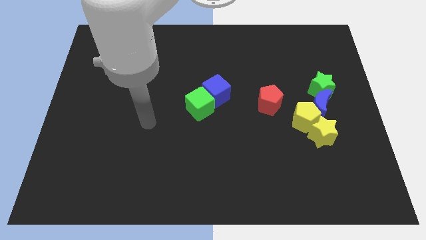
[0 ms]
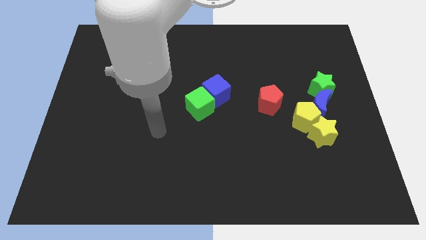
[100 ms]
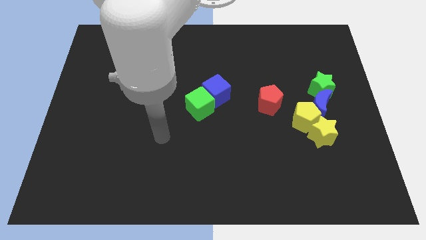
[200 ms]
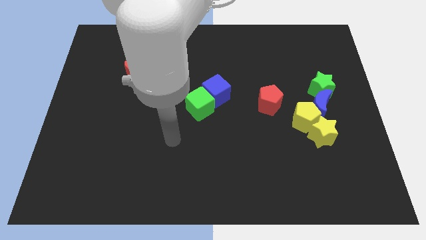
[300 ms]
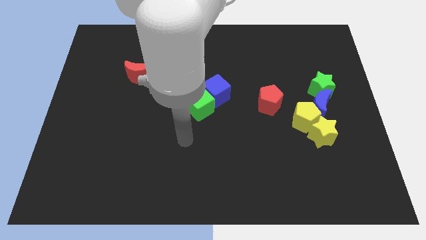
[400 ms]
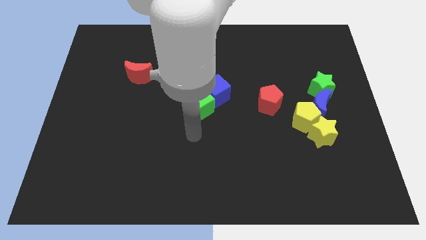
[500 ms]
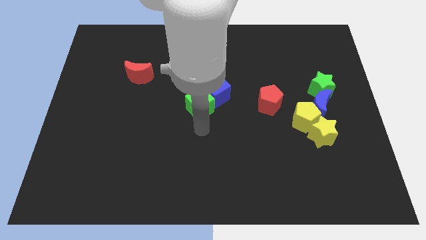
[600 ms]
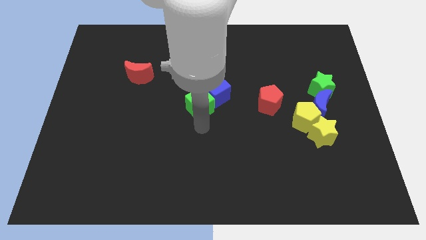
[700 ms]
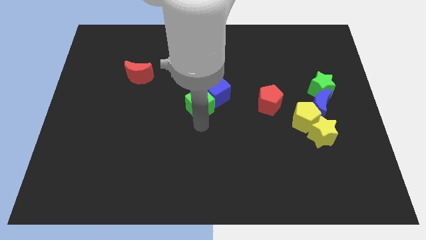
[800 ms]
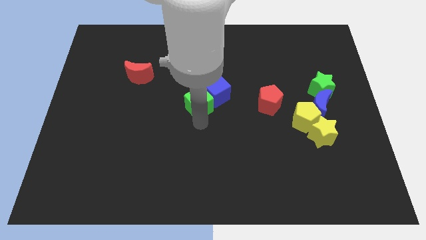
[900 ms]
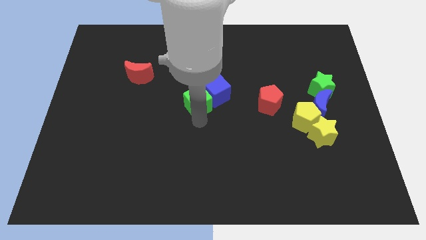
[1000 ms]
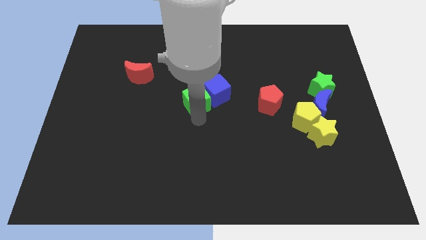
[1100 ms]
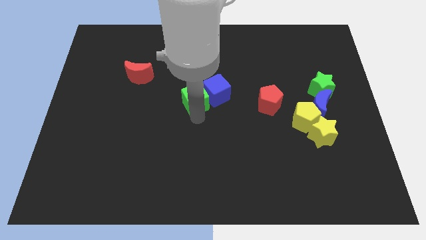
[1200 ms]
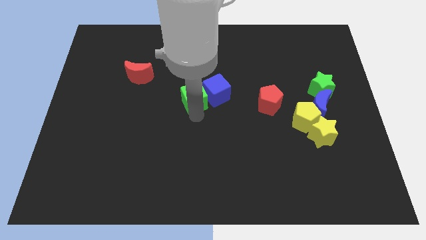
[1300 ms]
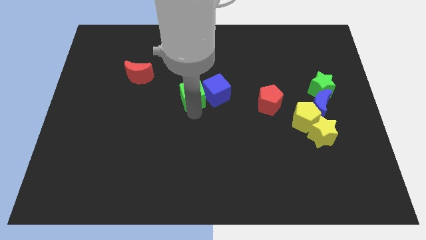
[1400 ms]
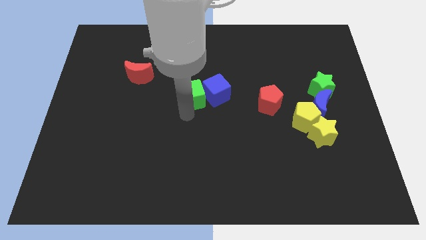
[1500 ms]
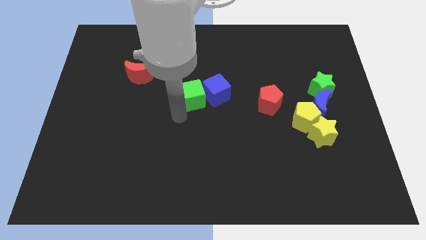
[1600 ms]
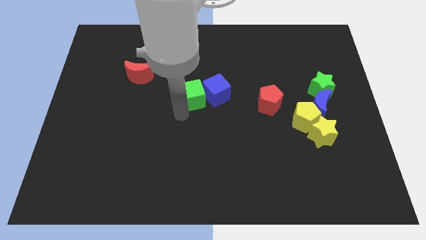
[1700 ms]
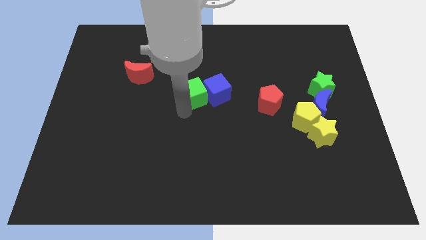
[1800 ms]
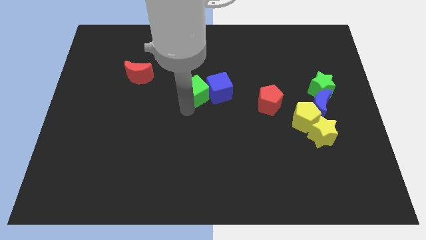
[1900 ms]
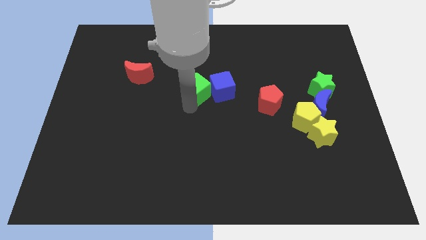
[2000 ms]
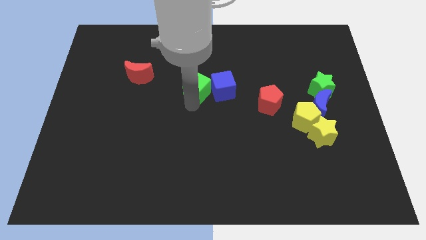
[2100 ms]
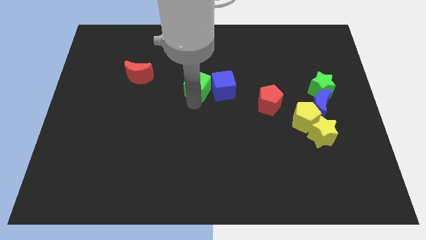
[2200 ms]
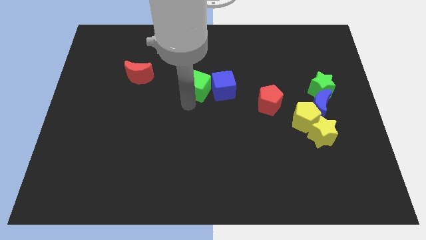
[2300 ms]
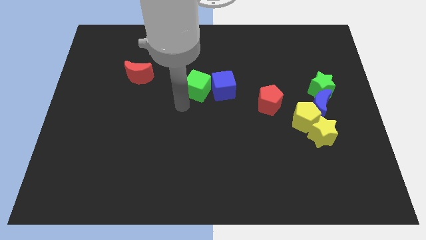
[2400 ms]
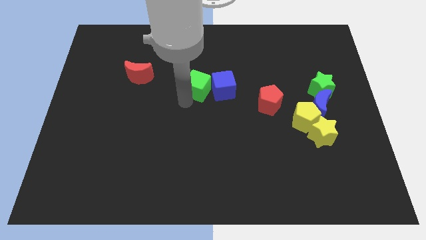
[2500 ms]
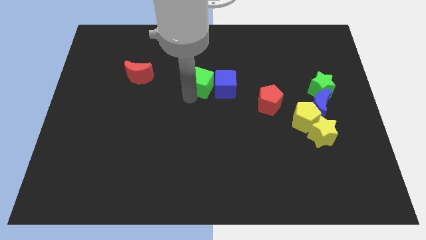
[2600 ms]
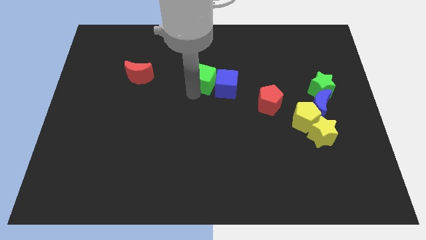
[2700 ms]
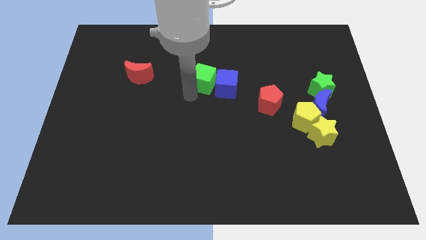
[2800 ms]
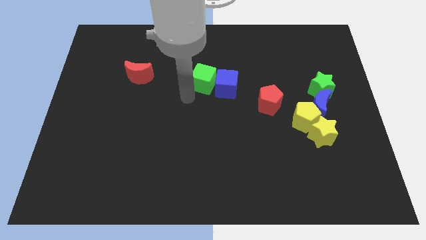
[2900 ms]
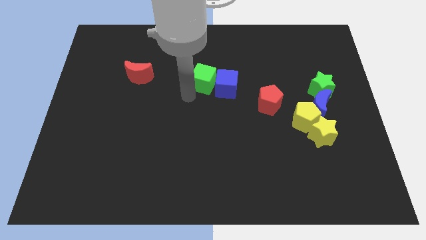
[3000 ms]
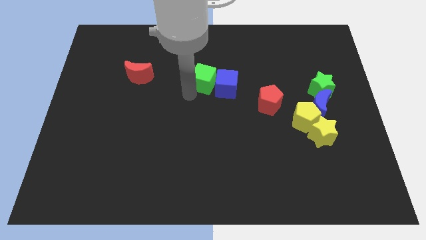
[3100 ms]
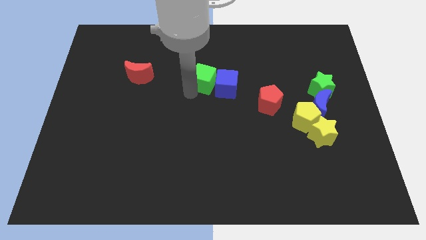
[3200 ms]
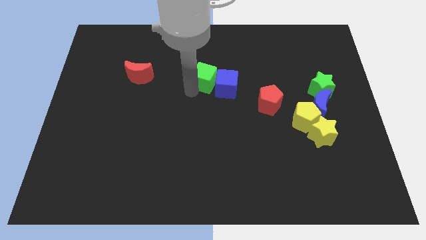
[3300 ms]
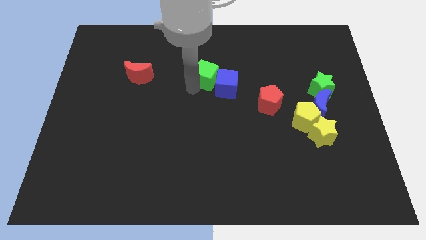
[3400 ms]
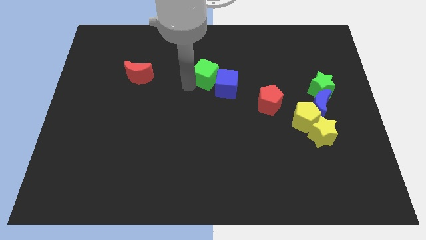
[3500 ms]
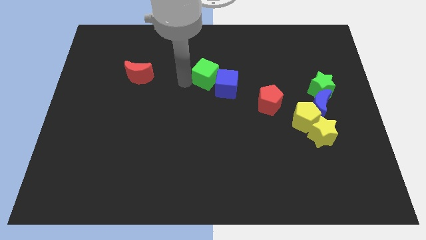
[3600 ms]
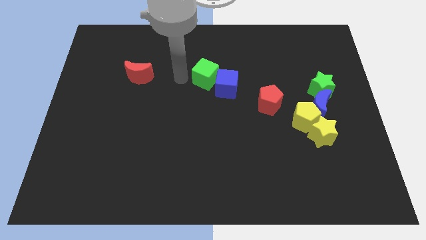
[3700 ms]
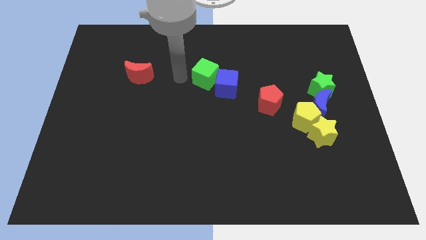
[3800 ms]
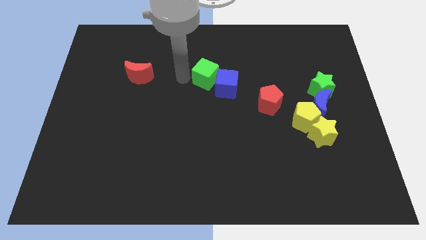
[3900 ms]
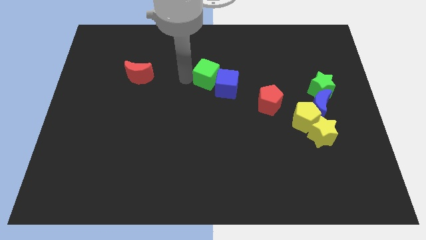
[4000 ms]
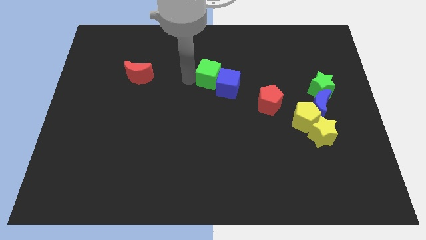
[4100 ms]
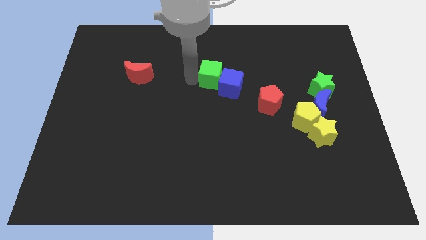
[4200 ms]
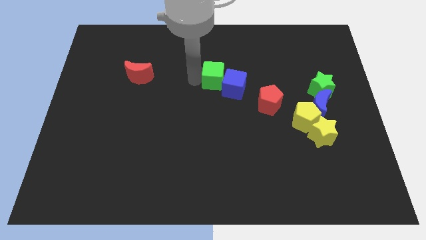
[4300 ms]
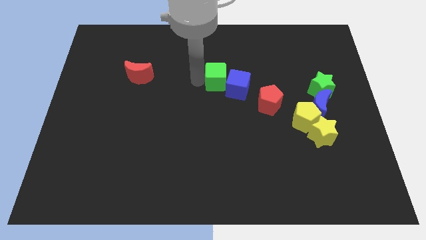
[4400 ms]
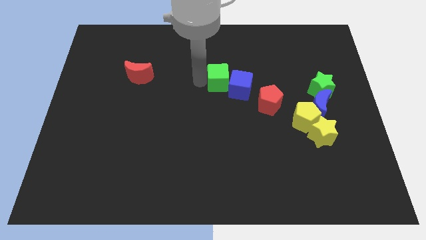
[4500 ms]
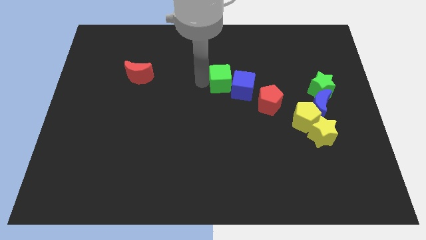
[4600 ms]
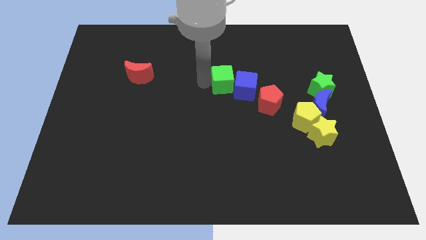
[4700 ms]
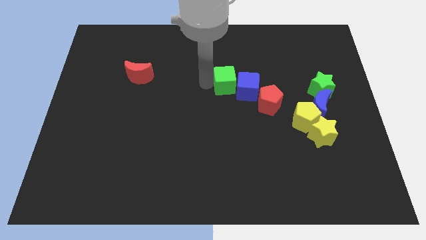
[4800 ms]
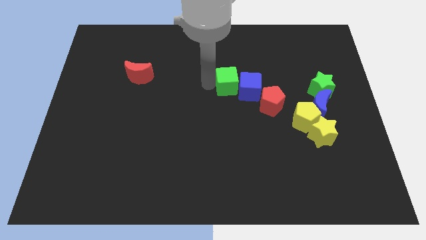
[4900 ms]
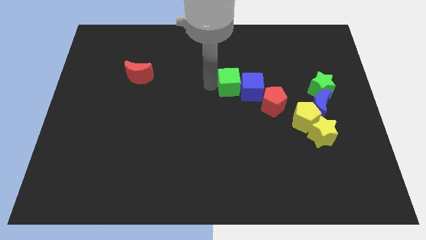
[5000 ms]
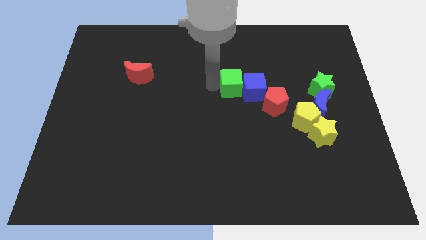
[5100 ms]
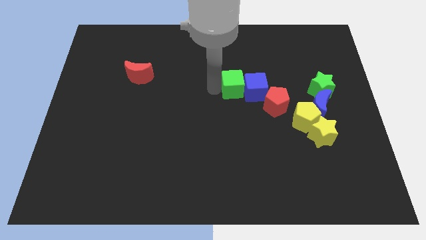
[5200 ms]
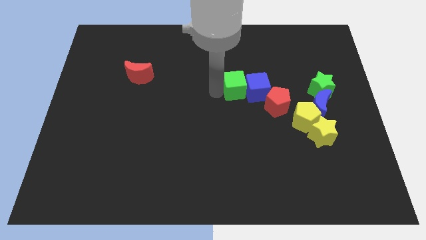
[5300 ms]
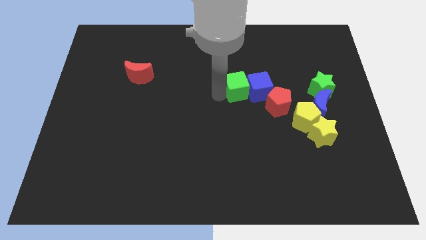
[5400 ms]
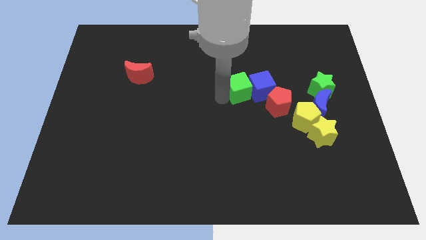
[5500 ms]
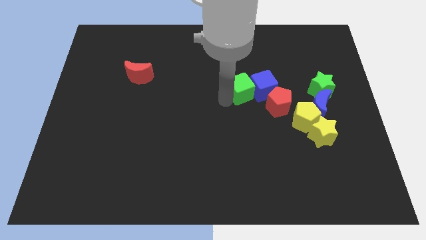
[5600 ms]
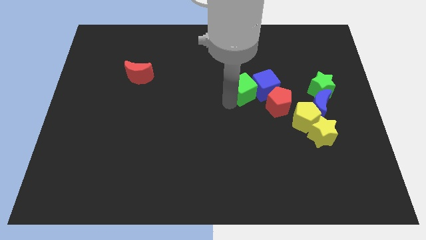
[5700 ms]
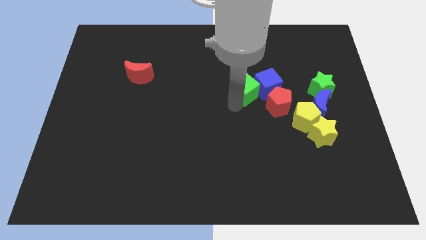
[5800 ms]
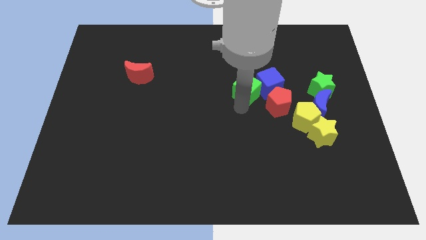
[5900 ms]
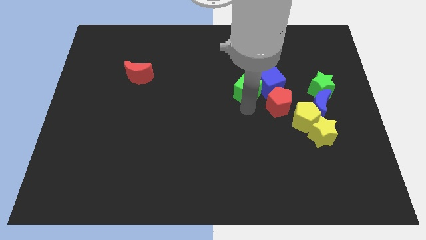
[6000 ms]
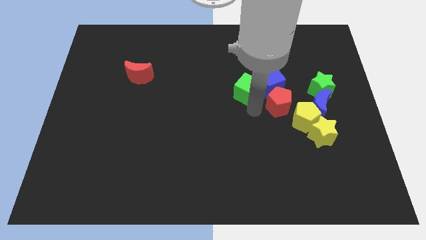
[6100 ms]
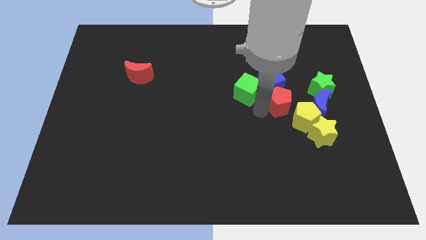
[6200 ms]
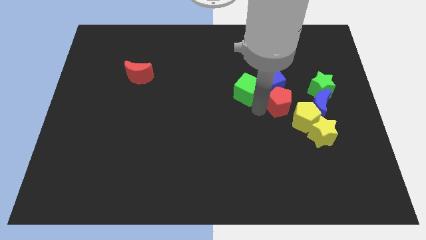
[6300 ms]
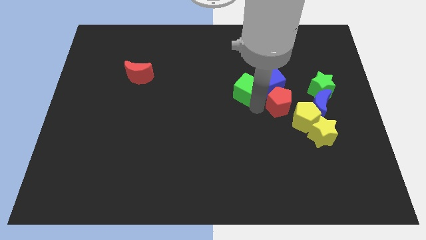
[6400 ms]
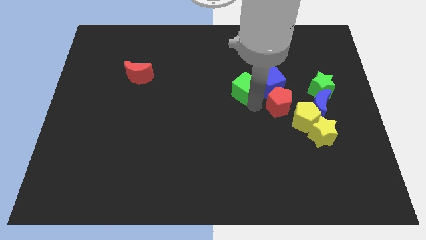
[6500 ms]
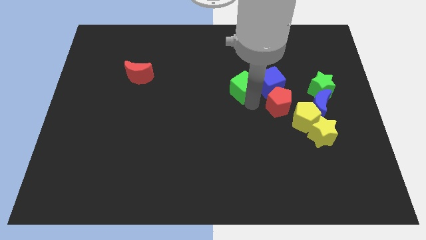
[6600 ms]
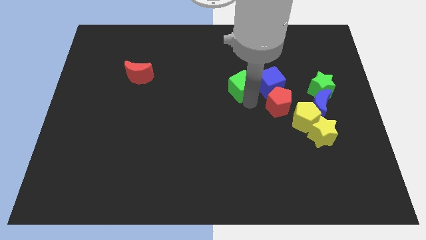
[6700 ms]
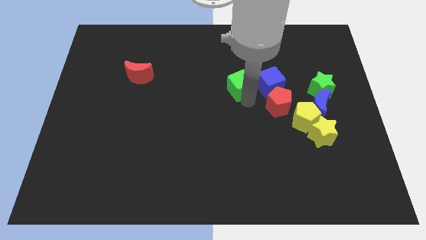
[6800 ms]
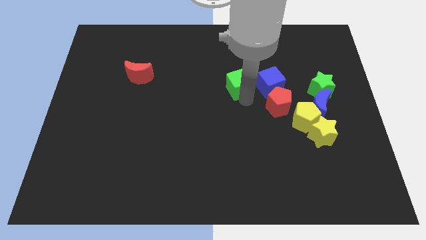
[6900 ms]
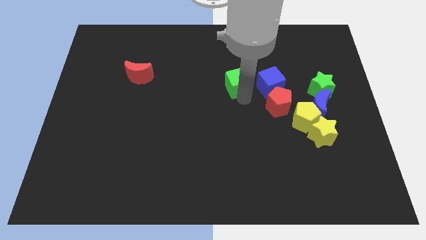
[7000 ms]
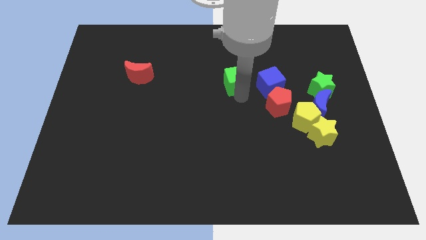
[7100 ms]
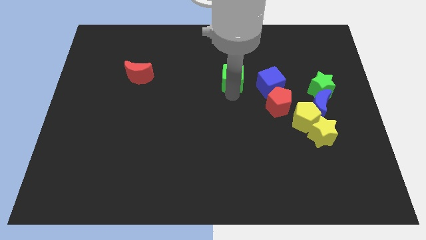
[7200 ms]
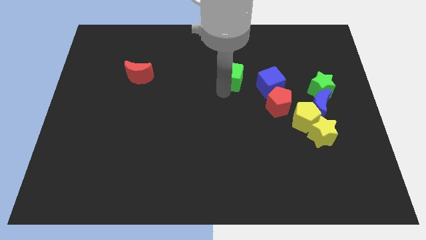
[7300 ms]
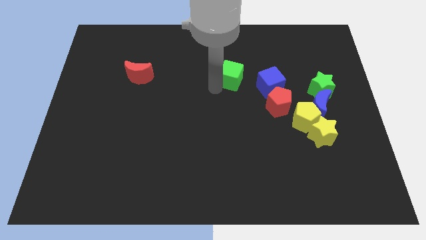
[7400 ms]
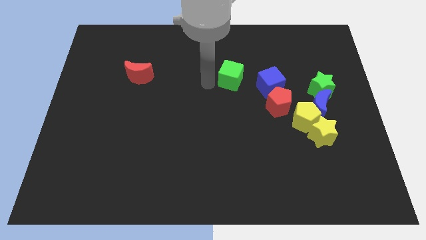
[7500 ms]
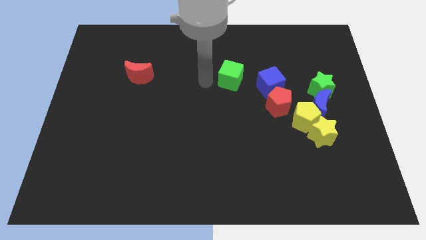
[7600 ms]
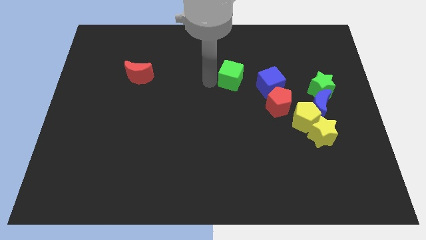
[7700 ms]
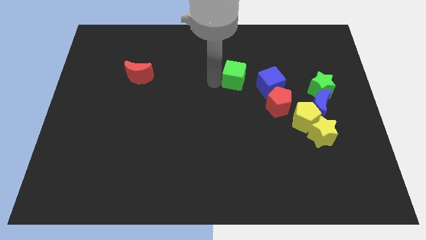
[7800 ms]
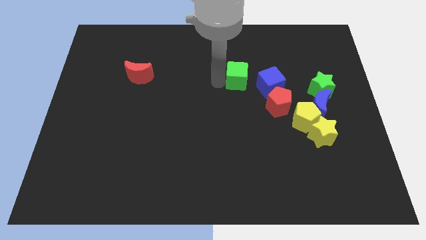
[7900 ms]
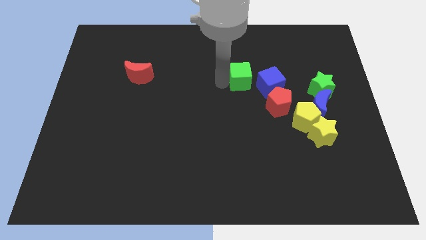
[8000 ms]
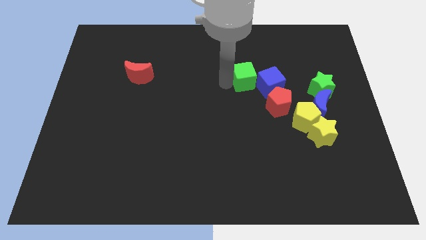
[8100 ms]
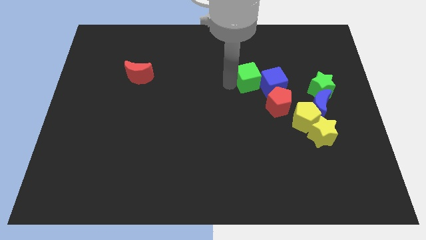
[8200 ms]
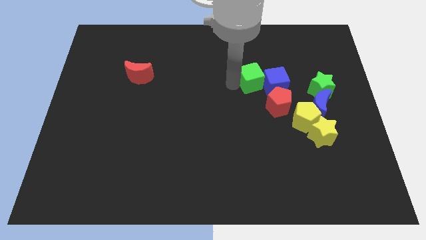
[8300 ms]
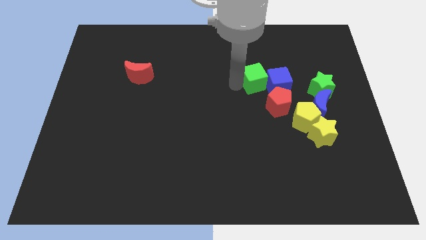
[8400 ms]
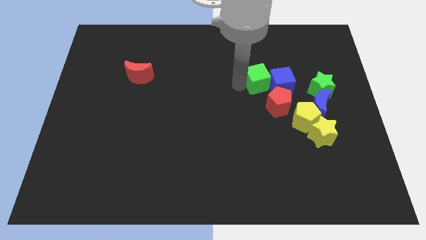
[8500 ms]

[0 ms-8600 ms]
push the green cube above the red pentagon
